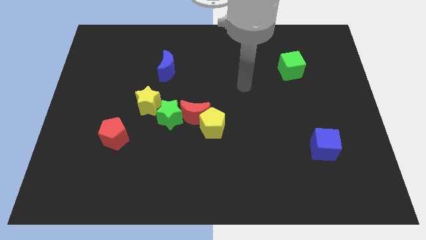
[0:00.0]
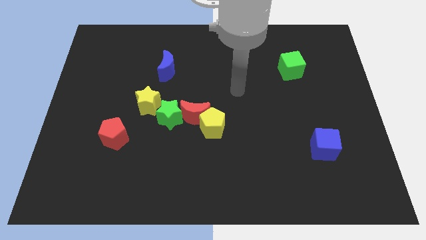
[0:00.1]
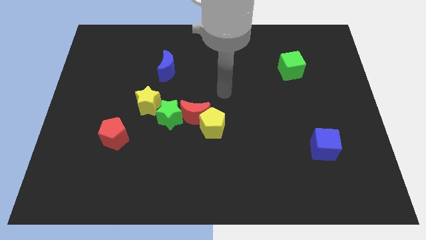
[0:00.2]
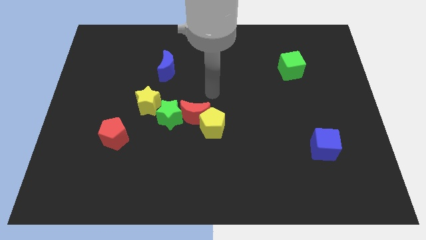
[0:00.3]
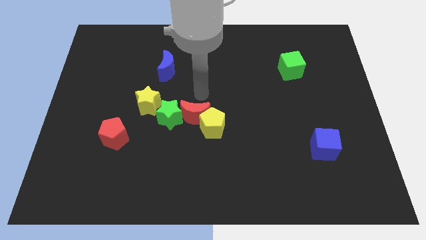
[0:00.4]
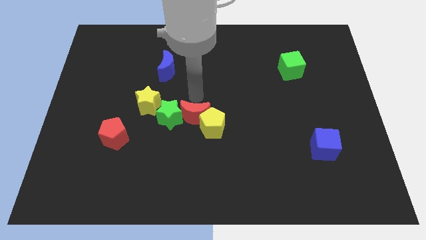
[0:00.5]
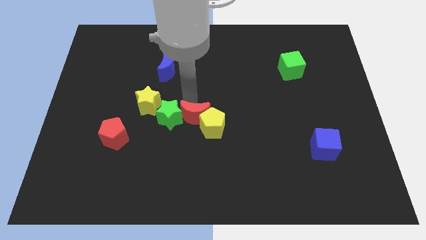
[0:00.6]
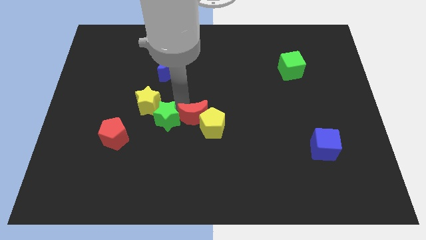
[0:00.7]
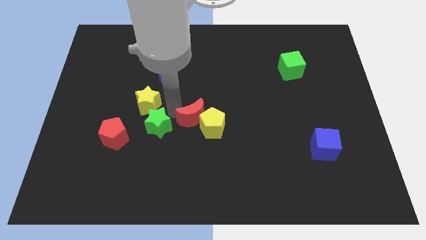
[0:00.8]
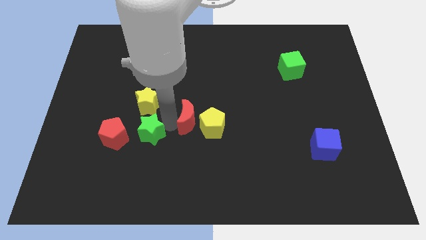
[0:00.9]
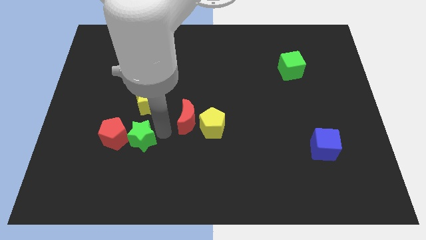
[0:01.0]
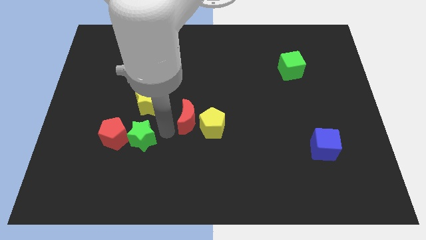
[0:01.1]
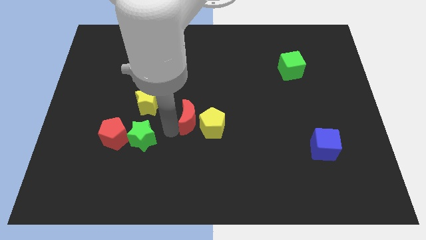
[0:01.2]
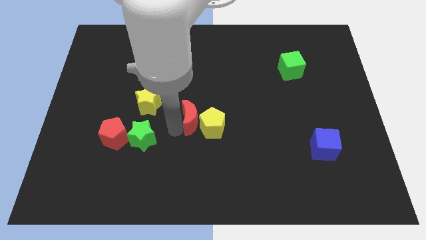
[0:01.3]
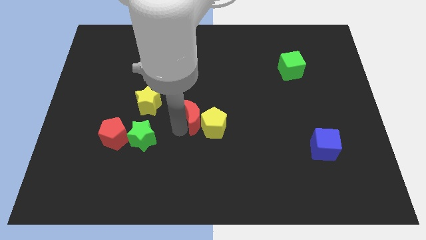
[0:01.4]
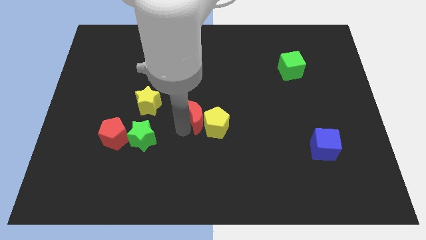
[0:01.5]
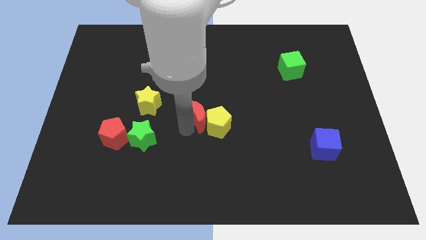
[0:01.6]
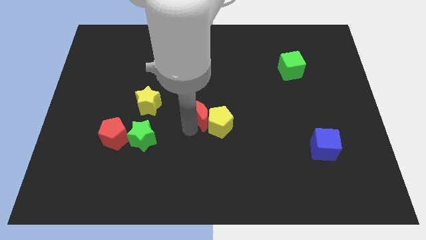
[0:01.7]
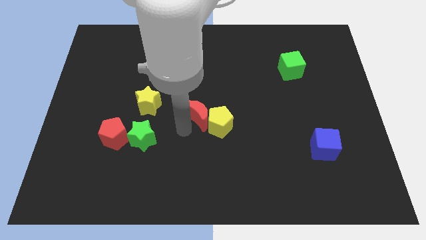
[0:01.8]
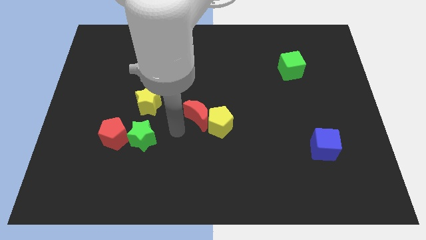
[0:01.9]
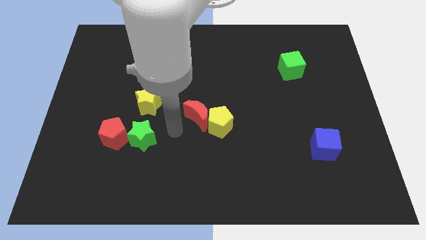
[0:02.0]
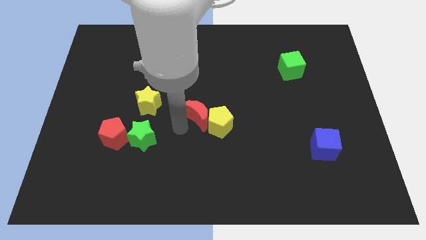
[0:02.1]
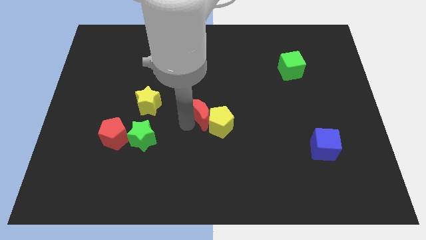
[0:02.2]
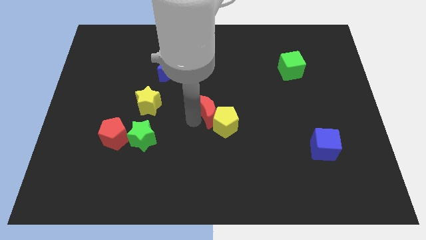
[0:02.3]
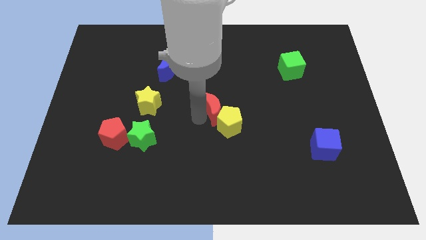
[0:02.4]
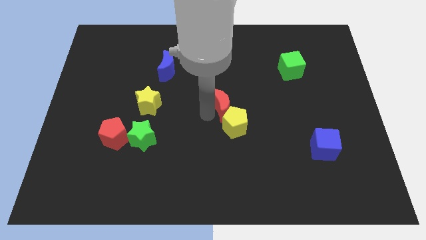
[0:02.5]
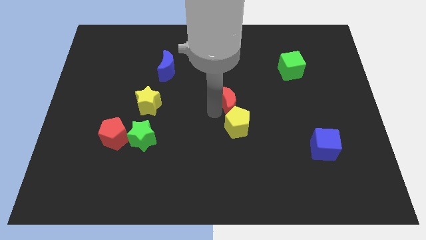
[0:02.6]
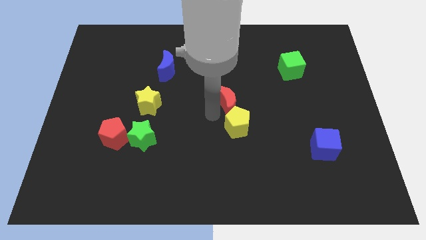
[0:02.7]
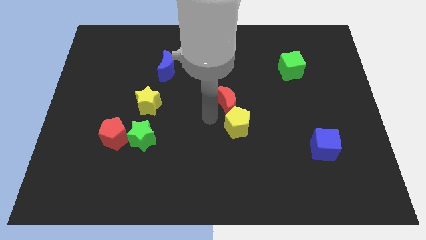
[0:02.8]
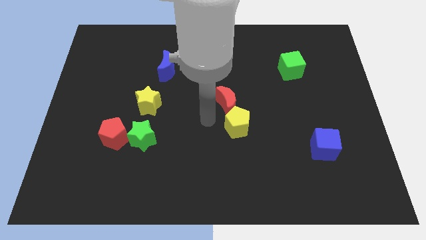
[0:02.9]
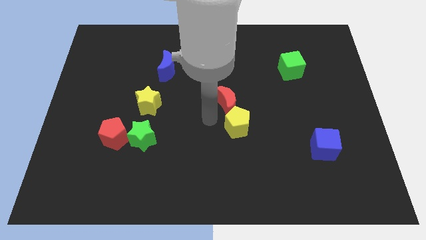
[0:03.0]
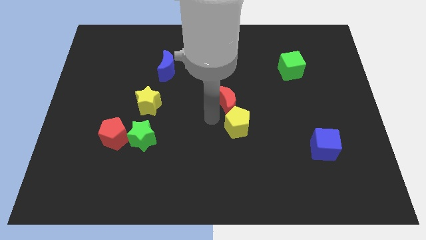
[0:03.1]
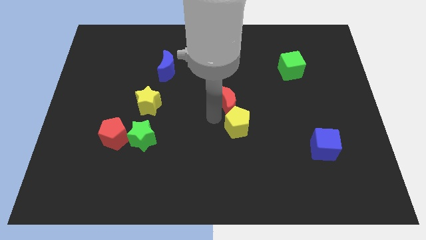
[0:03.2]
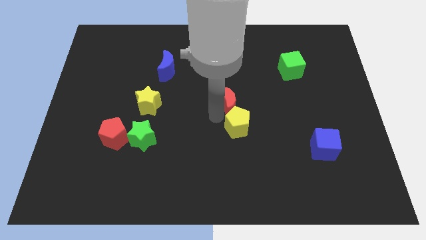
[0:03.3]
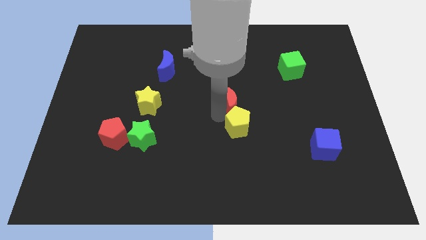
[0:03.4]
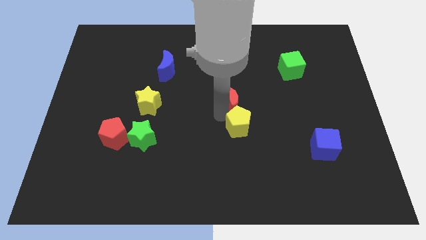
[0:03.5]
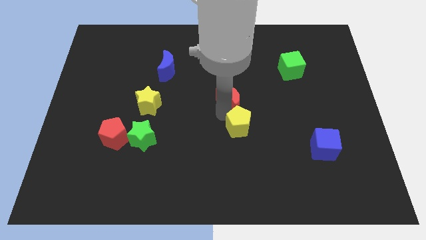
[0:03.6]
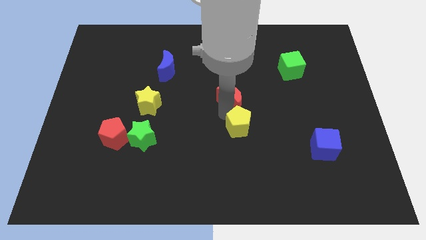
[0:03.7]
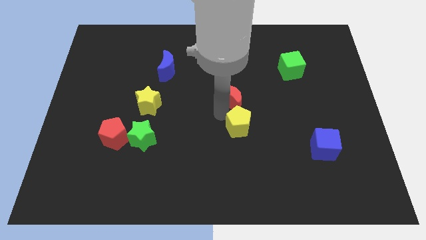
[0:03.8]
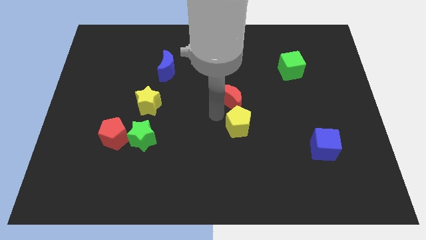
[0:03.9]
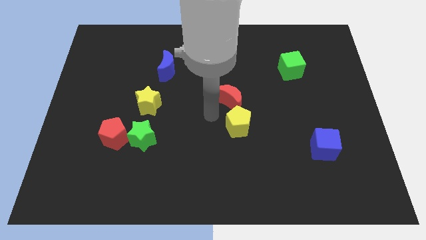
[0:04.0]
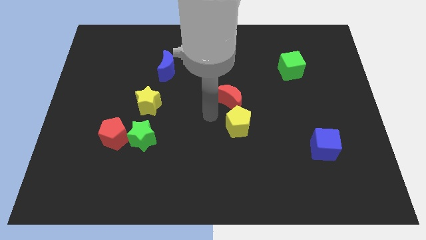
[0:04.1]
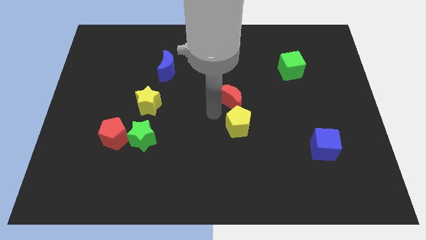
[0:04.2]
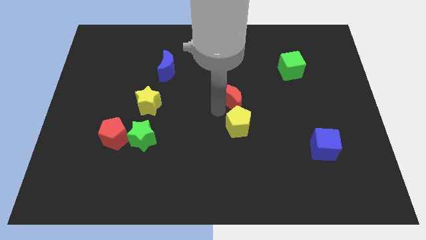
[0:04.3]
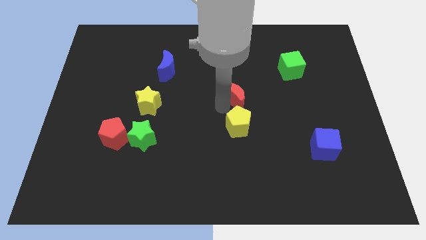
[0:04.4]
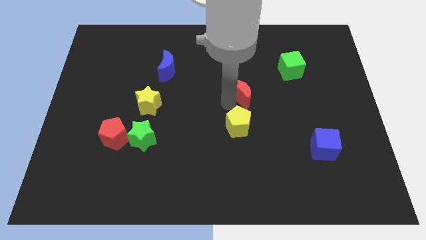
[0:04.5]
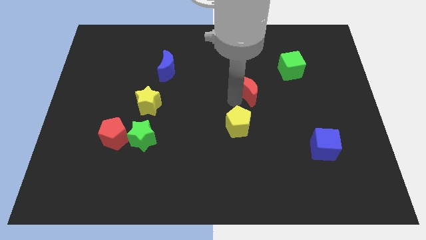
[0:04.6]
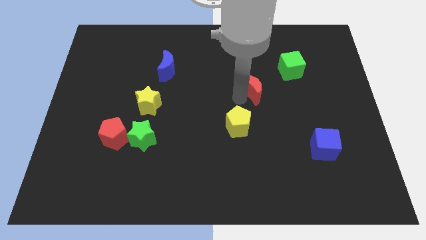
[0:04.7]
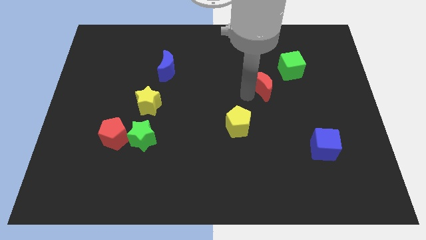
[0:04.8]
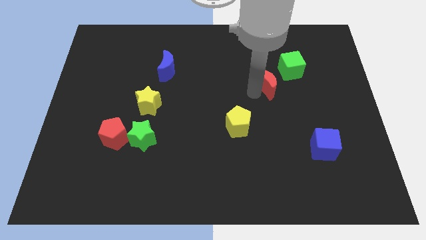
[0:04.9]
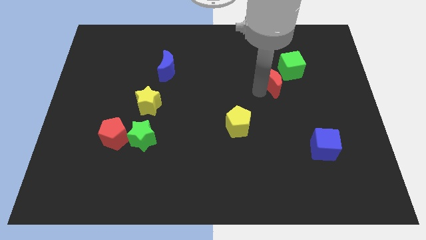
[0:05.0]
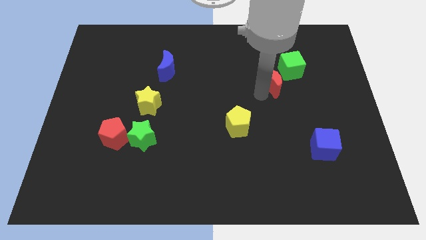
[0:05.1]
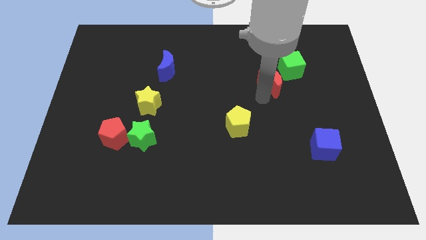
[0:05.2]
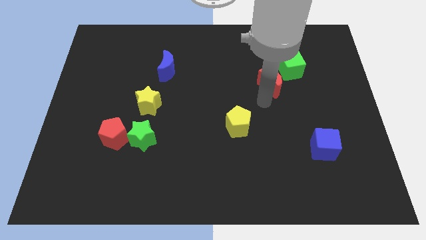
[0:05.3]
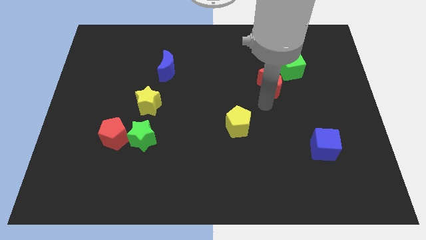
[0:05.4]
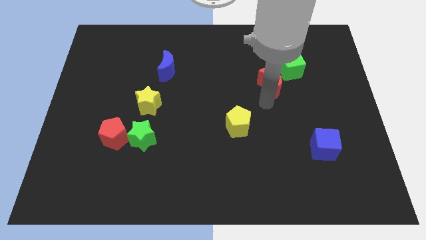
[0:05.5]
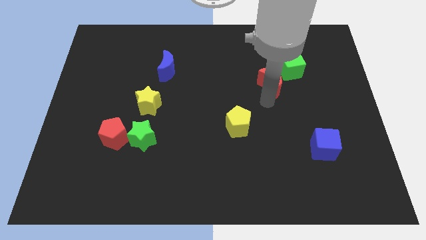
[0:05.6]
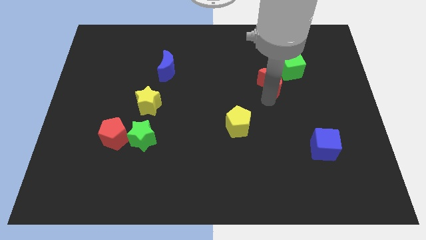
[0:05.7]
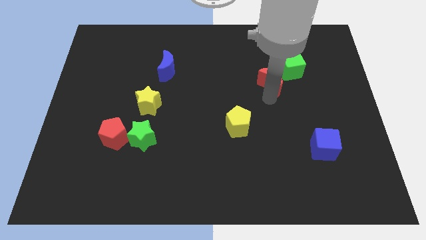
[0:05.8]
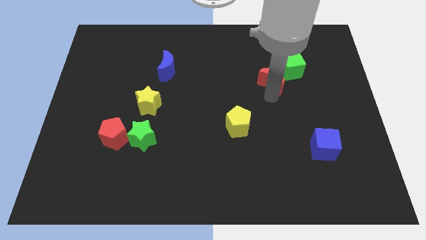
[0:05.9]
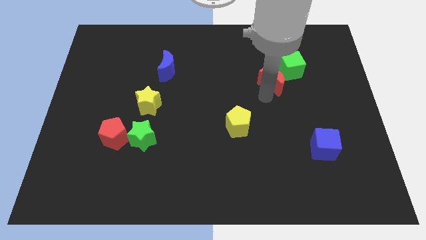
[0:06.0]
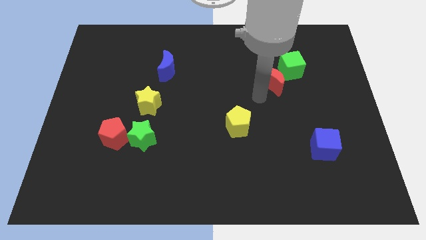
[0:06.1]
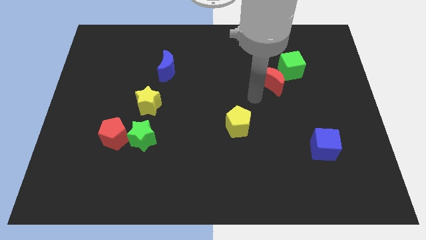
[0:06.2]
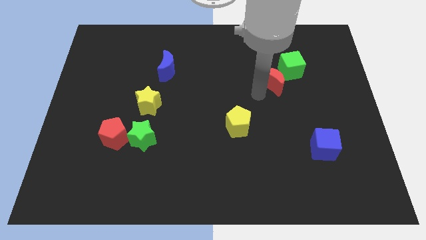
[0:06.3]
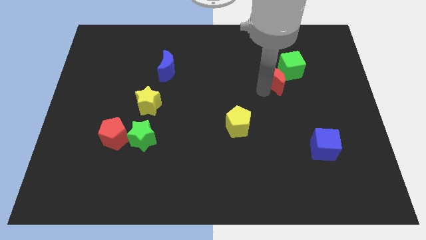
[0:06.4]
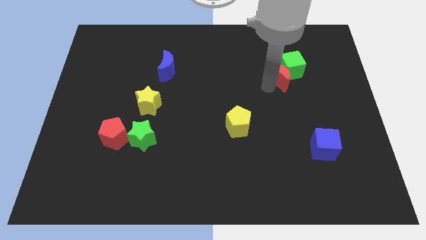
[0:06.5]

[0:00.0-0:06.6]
slide the red moon towards the green cube

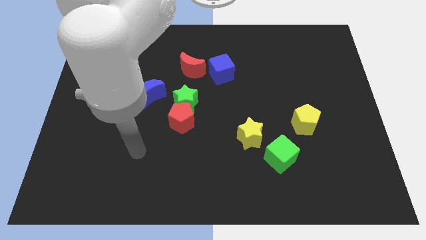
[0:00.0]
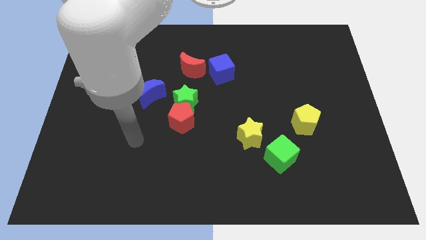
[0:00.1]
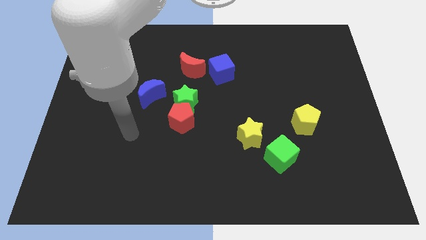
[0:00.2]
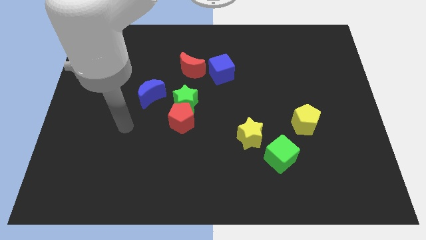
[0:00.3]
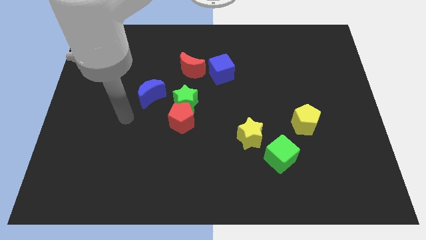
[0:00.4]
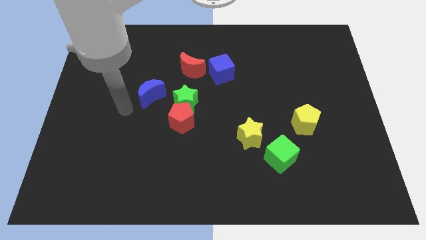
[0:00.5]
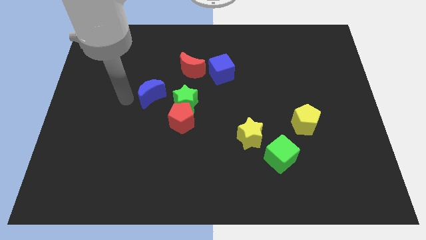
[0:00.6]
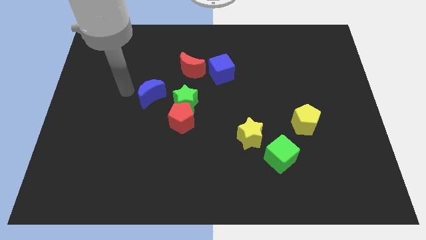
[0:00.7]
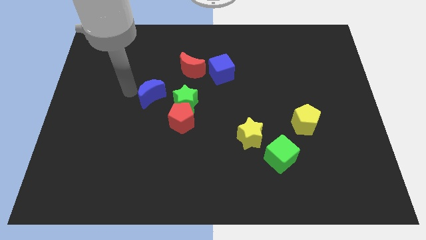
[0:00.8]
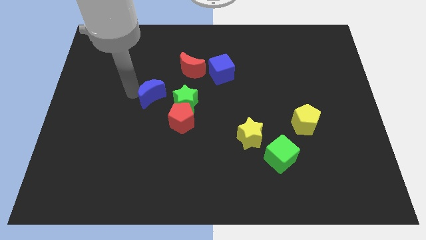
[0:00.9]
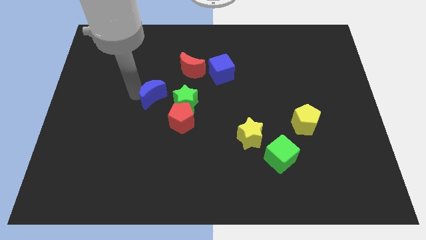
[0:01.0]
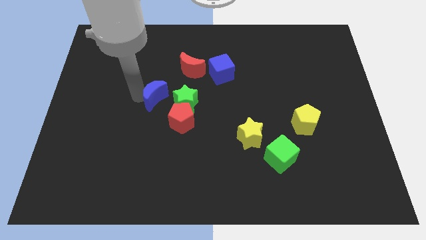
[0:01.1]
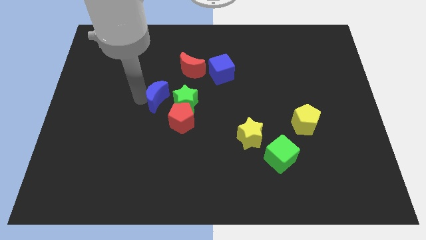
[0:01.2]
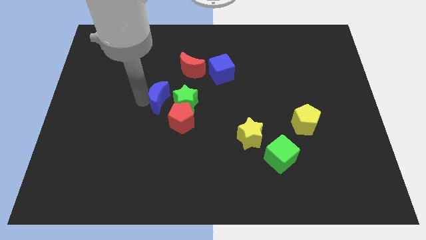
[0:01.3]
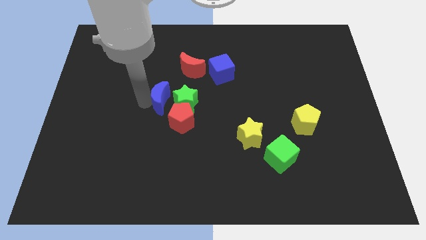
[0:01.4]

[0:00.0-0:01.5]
slide the blue moon towards the green star
